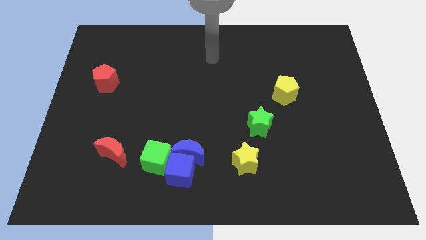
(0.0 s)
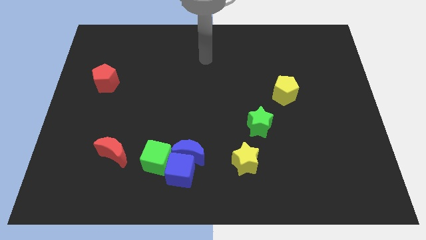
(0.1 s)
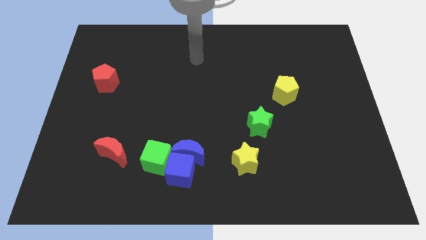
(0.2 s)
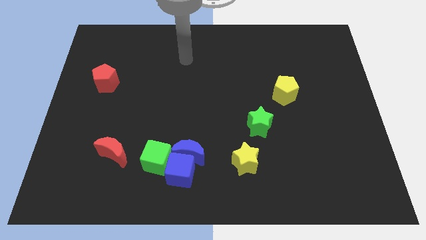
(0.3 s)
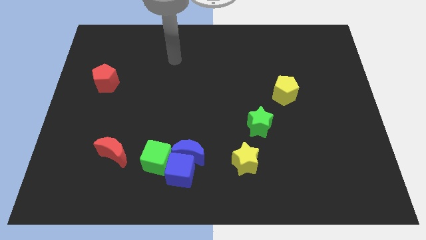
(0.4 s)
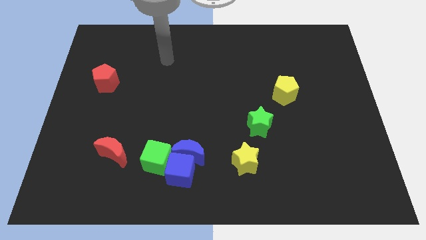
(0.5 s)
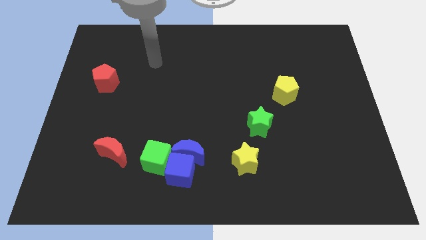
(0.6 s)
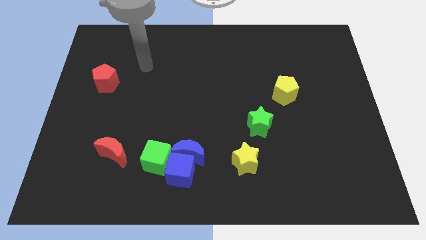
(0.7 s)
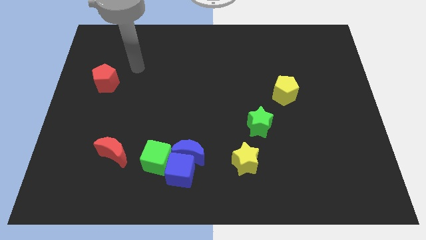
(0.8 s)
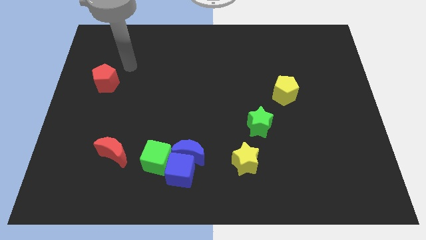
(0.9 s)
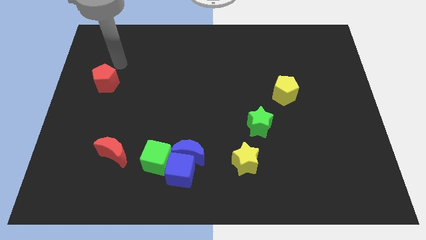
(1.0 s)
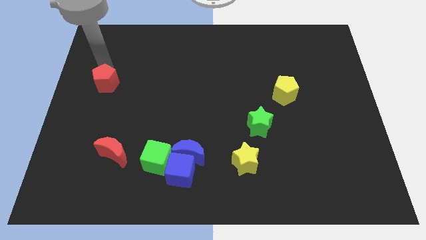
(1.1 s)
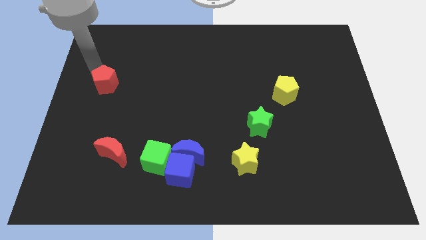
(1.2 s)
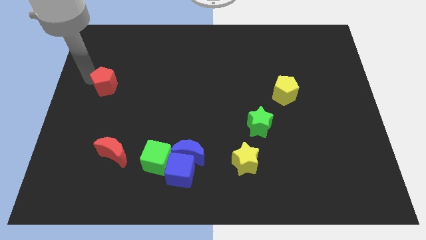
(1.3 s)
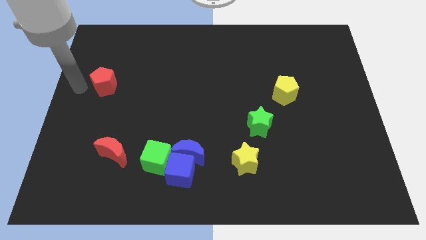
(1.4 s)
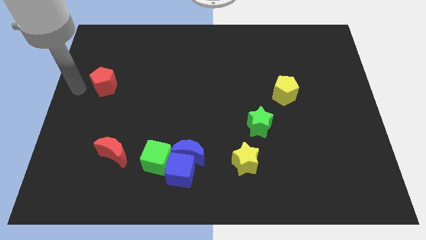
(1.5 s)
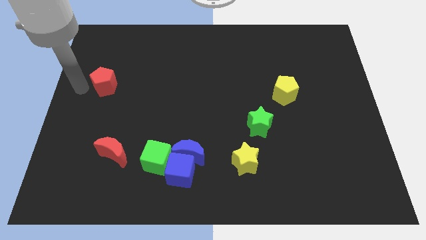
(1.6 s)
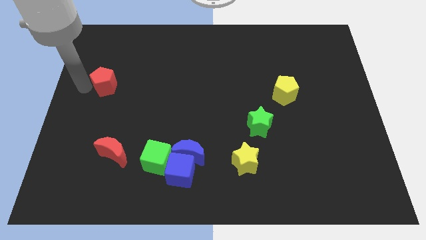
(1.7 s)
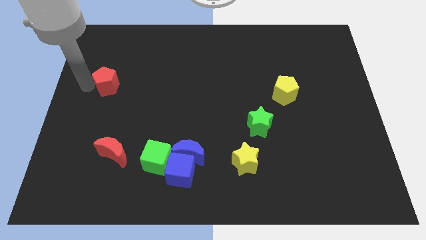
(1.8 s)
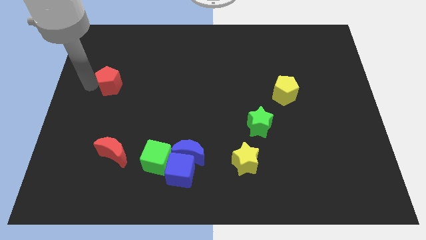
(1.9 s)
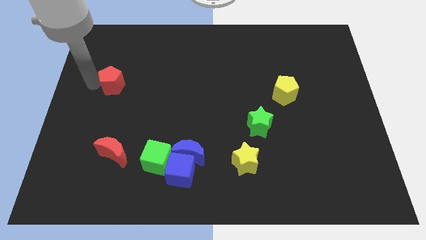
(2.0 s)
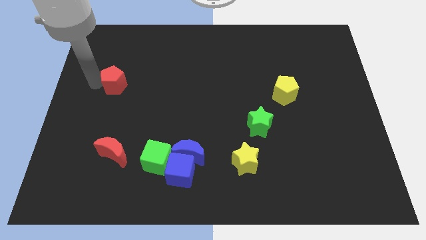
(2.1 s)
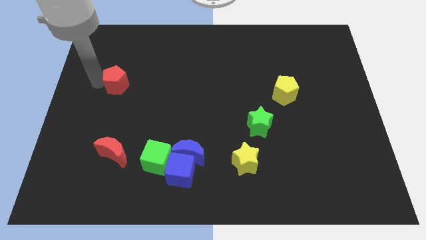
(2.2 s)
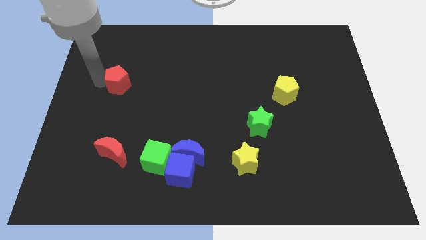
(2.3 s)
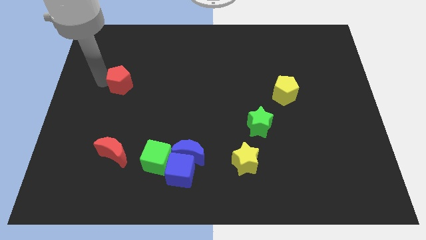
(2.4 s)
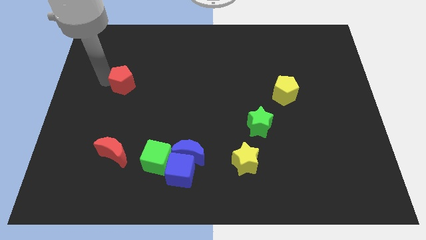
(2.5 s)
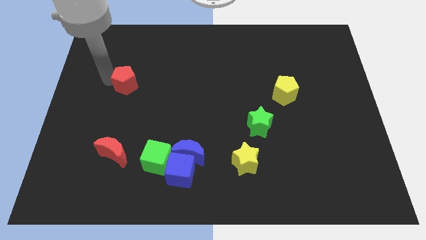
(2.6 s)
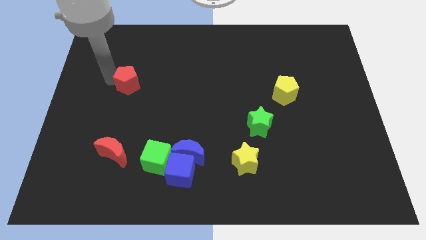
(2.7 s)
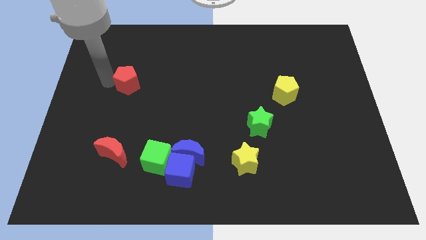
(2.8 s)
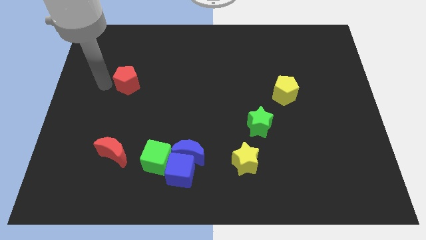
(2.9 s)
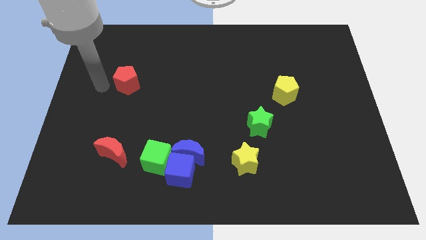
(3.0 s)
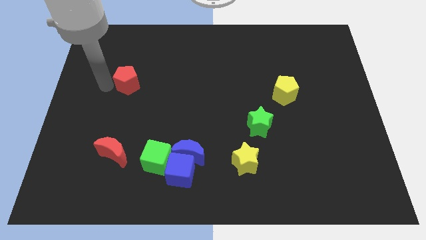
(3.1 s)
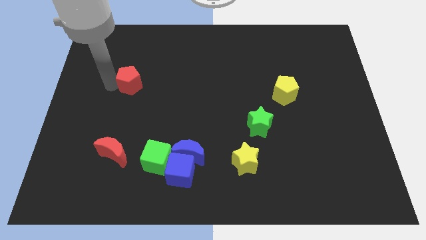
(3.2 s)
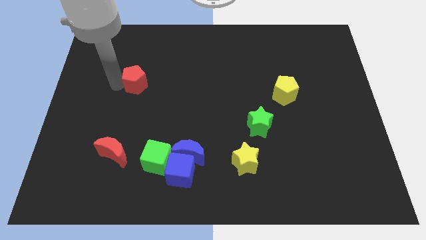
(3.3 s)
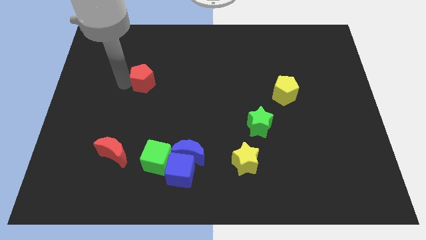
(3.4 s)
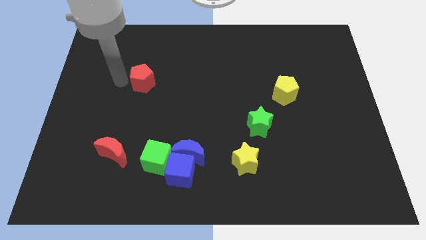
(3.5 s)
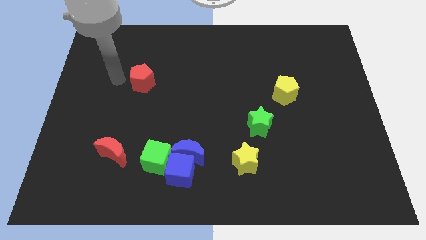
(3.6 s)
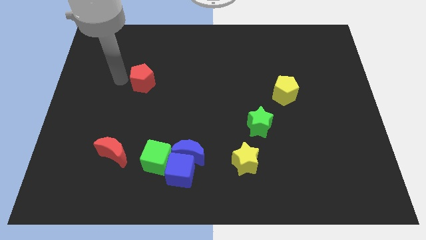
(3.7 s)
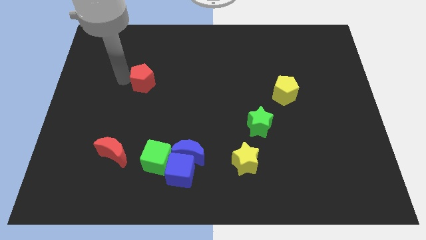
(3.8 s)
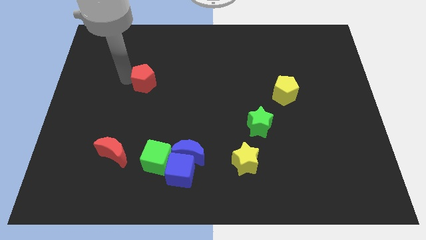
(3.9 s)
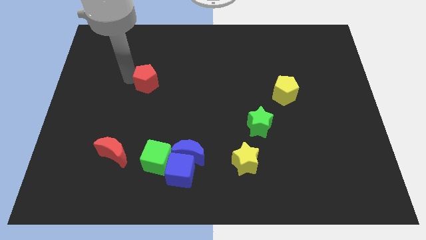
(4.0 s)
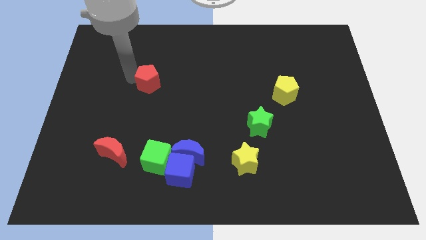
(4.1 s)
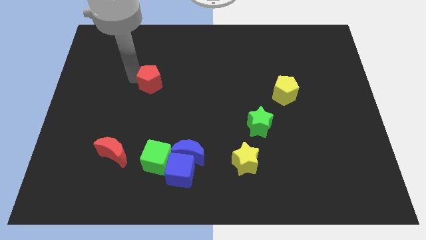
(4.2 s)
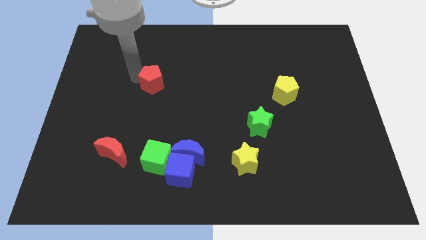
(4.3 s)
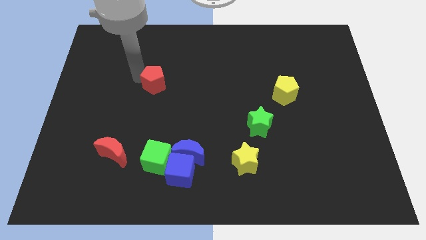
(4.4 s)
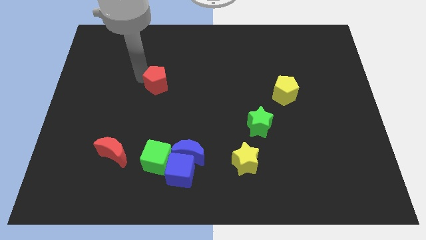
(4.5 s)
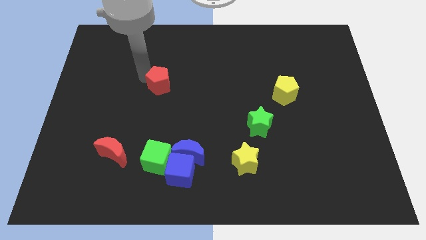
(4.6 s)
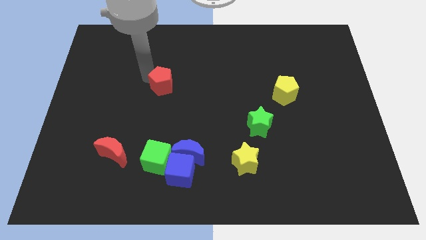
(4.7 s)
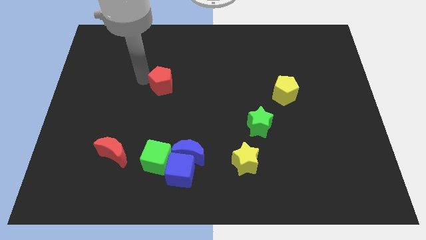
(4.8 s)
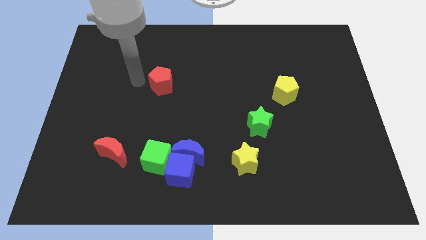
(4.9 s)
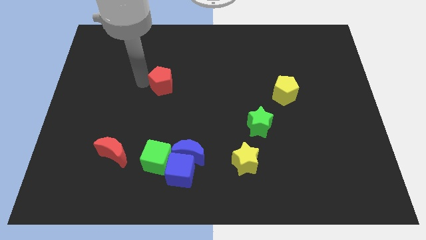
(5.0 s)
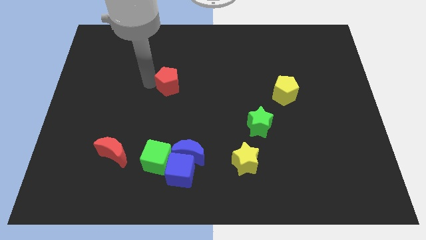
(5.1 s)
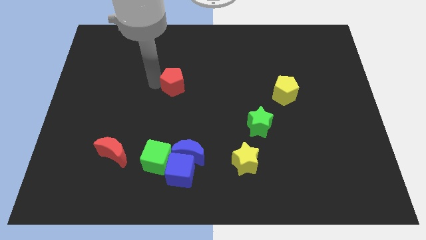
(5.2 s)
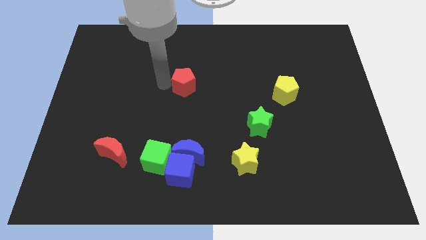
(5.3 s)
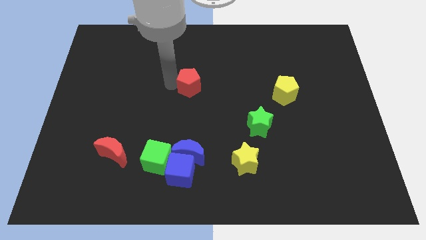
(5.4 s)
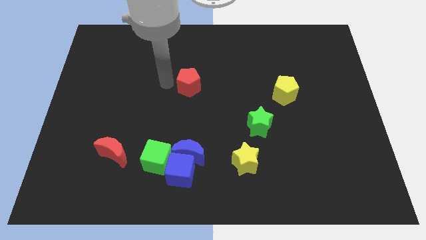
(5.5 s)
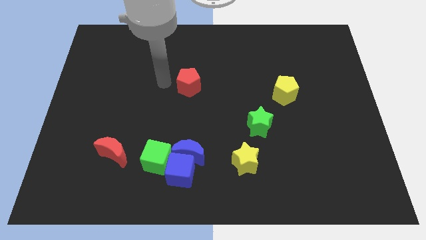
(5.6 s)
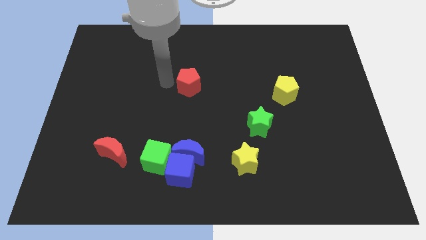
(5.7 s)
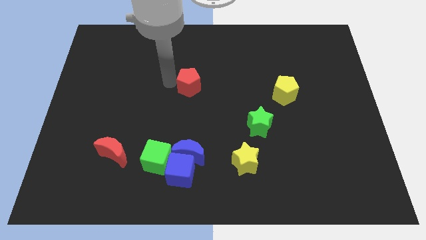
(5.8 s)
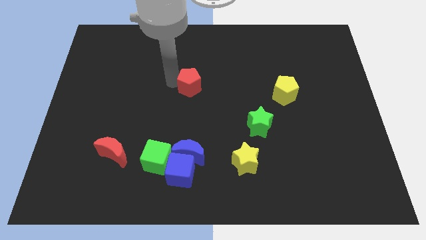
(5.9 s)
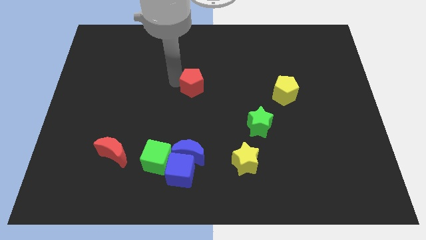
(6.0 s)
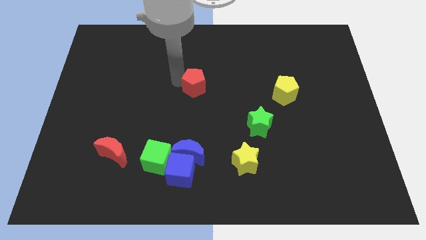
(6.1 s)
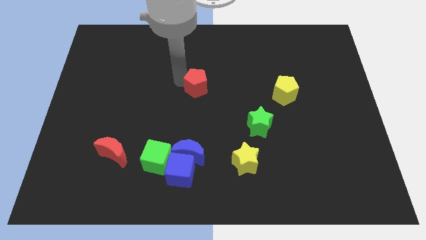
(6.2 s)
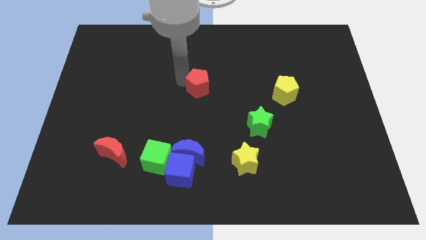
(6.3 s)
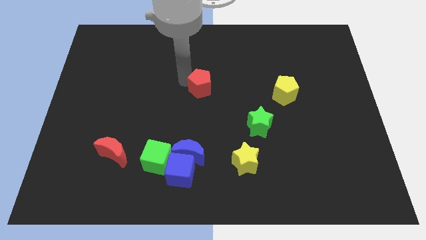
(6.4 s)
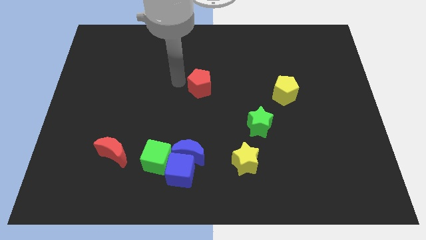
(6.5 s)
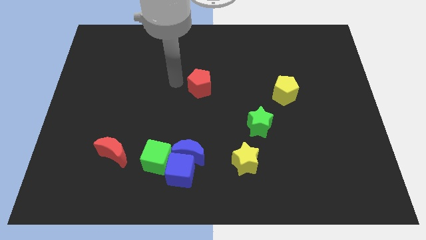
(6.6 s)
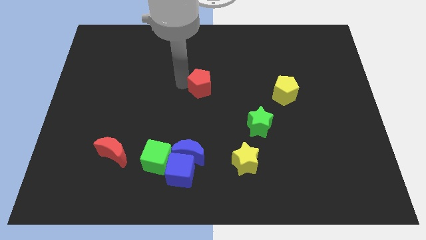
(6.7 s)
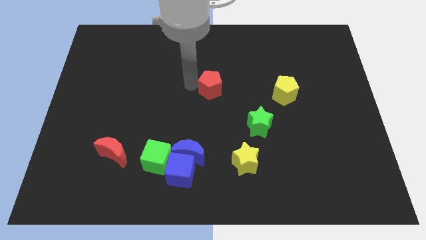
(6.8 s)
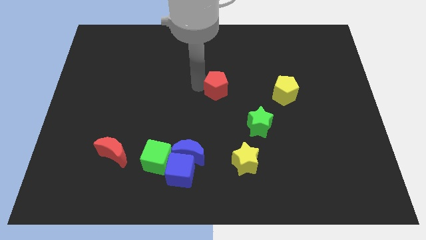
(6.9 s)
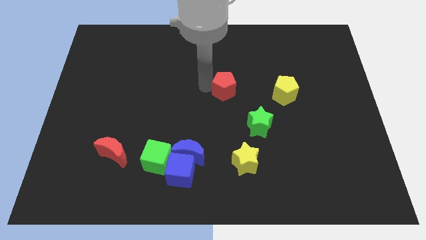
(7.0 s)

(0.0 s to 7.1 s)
slide the red pentagon to the left of the yellow pentagon
